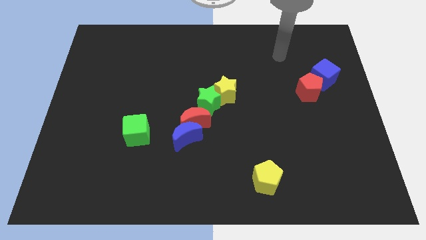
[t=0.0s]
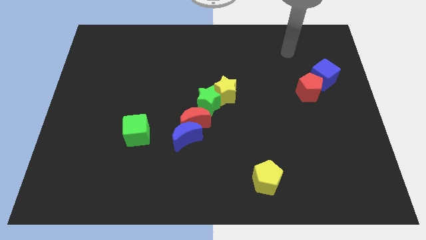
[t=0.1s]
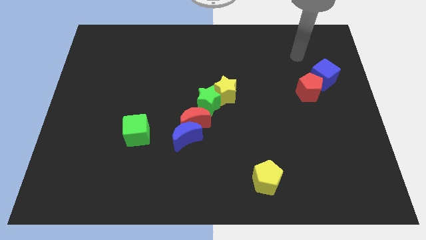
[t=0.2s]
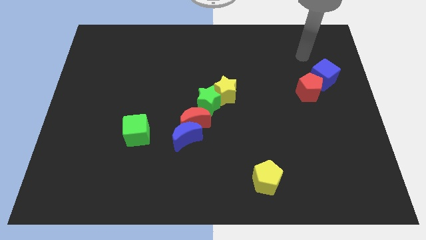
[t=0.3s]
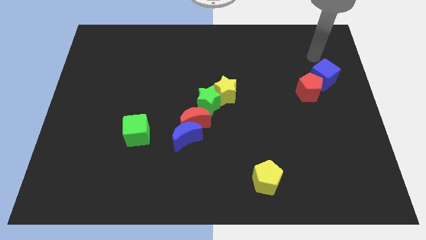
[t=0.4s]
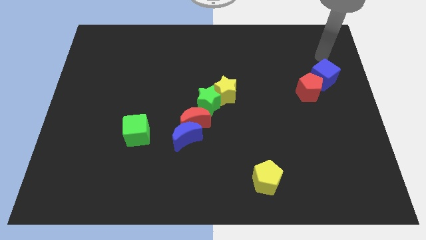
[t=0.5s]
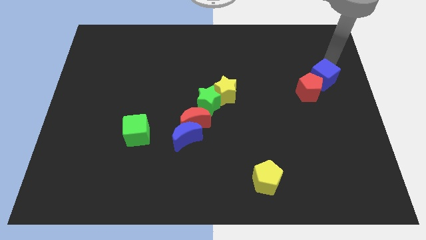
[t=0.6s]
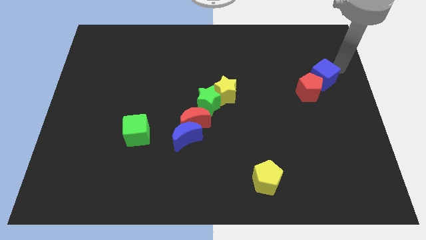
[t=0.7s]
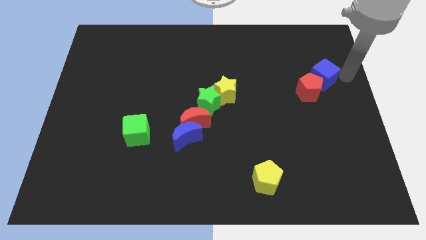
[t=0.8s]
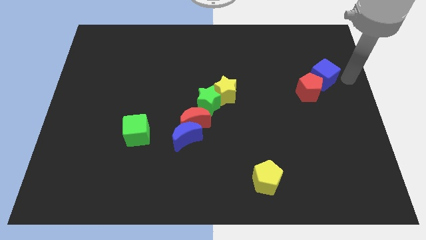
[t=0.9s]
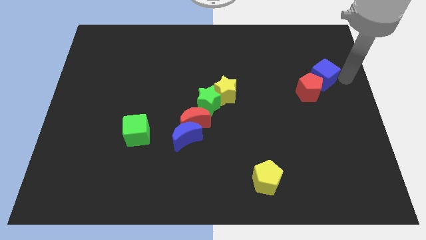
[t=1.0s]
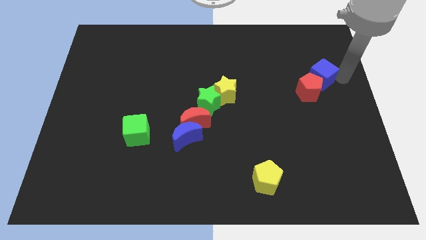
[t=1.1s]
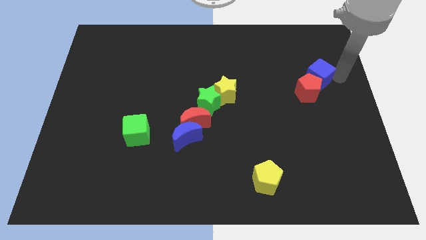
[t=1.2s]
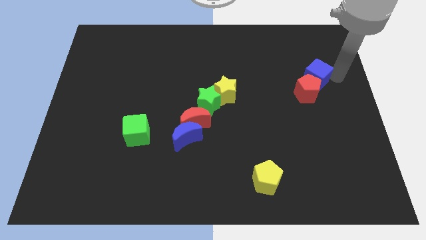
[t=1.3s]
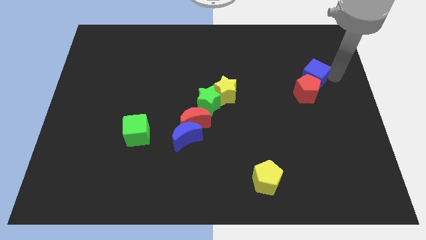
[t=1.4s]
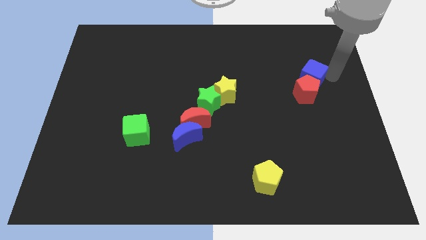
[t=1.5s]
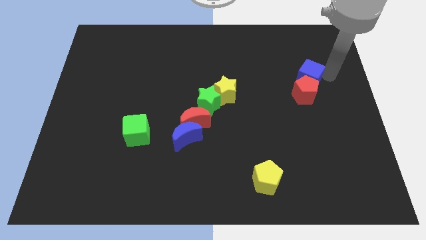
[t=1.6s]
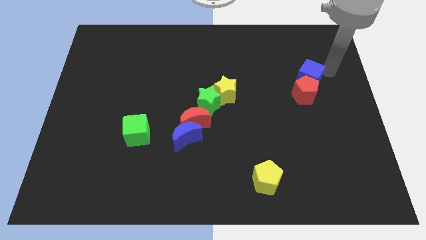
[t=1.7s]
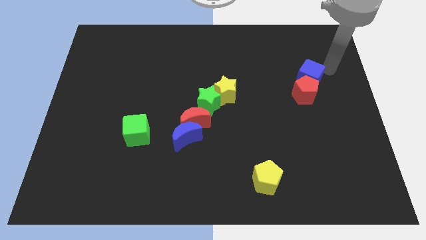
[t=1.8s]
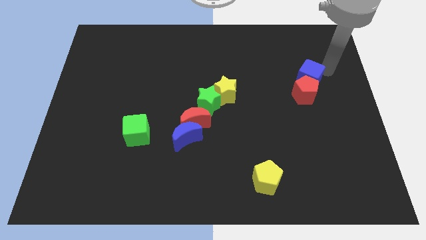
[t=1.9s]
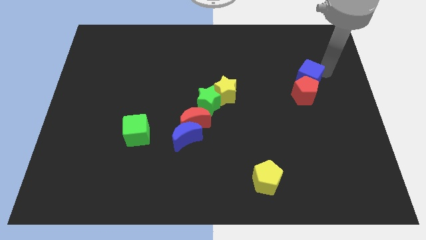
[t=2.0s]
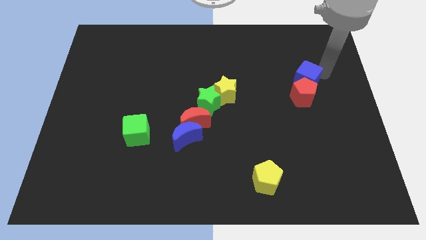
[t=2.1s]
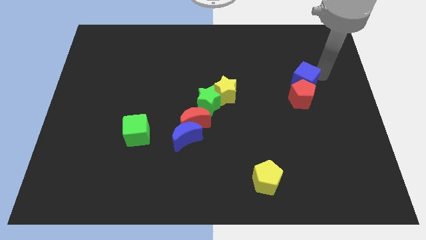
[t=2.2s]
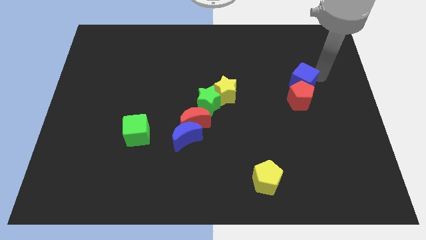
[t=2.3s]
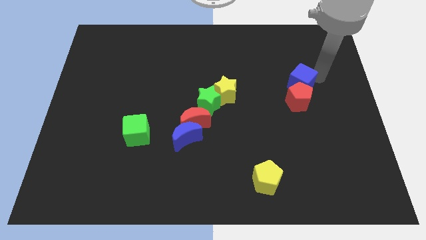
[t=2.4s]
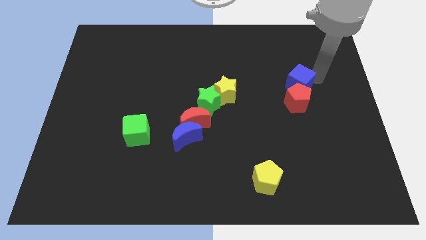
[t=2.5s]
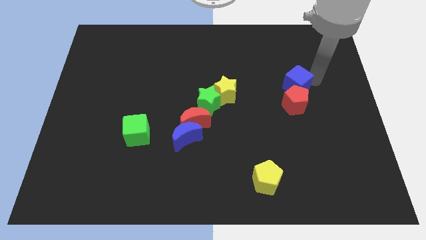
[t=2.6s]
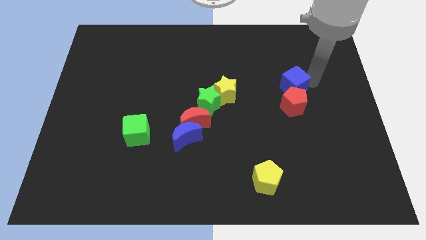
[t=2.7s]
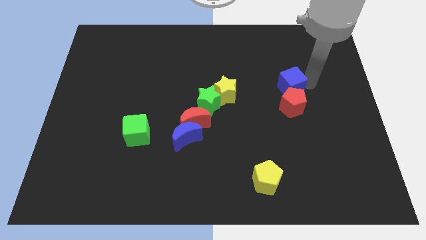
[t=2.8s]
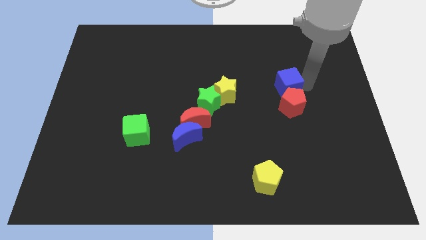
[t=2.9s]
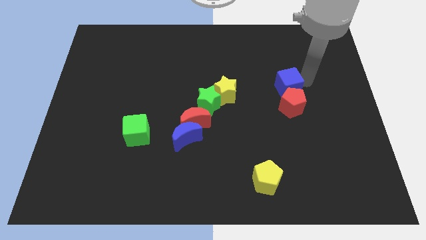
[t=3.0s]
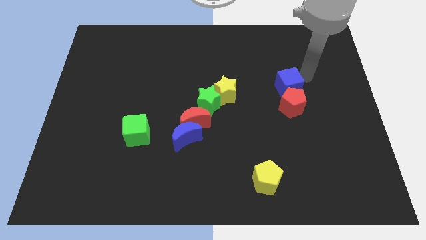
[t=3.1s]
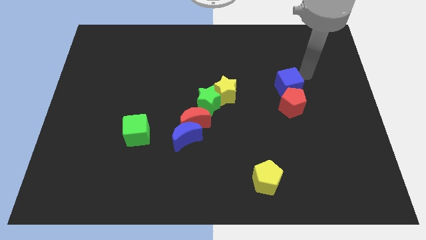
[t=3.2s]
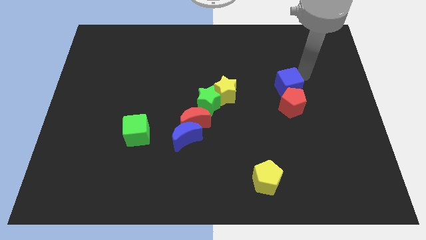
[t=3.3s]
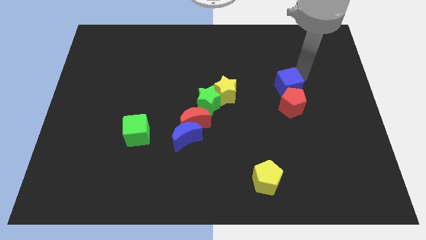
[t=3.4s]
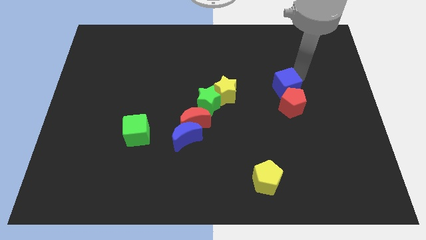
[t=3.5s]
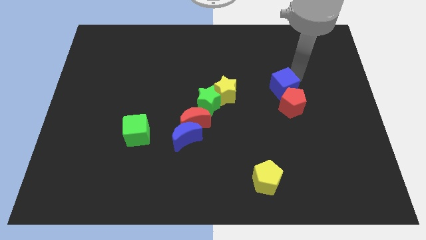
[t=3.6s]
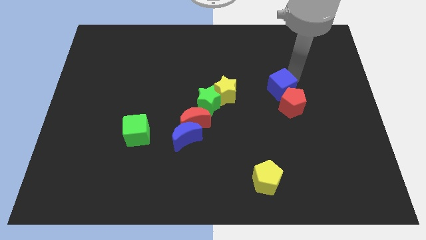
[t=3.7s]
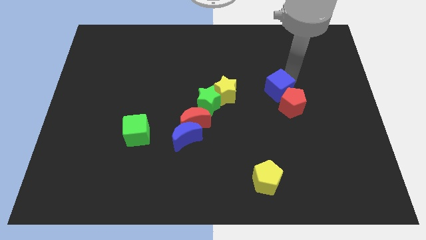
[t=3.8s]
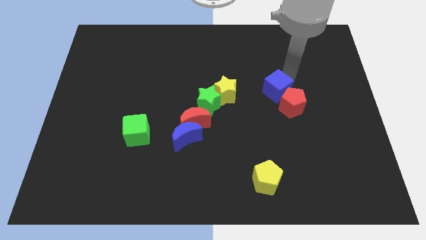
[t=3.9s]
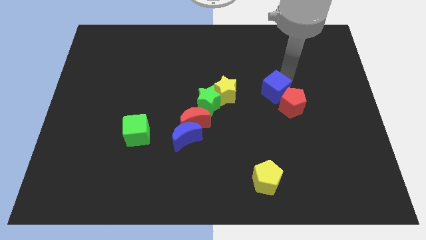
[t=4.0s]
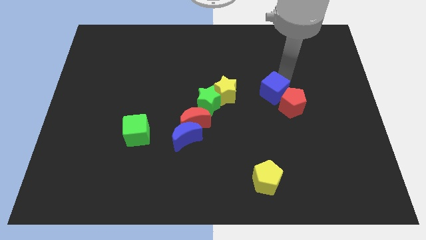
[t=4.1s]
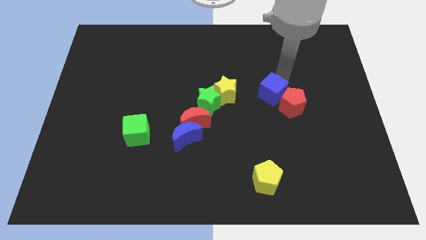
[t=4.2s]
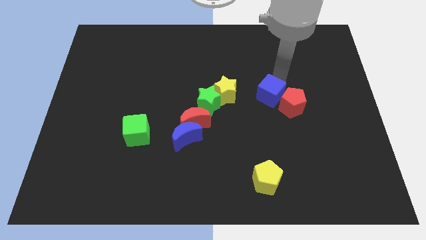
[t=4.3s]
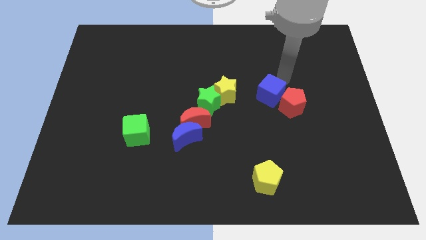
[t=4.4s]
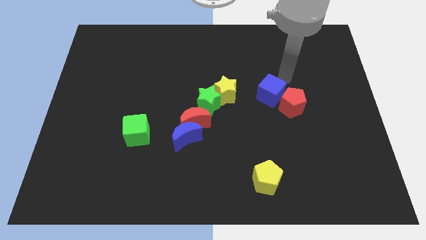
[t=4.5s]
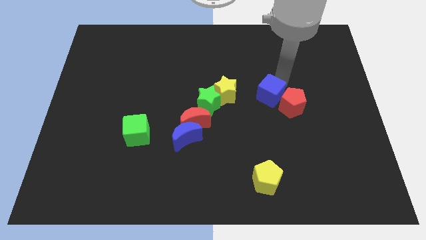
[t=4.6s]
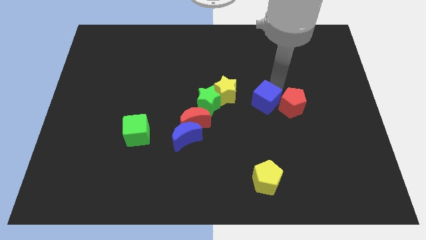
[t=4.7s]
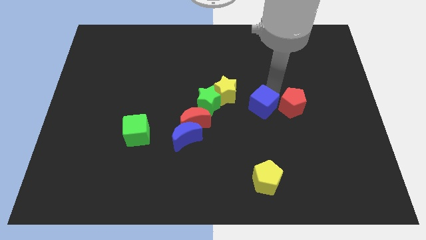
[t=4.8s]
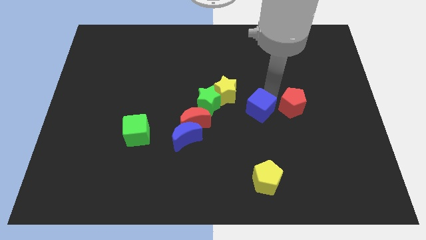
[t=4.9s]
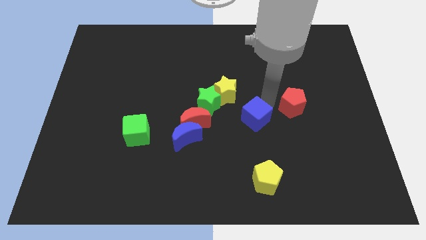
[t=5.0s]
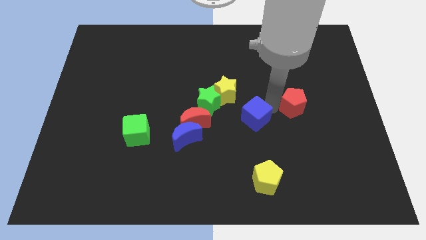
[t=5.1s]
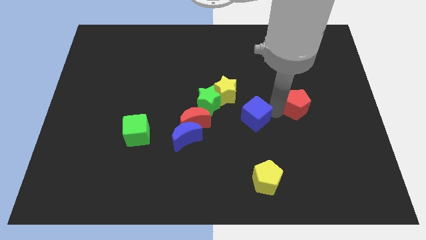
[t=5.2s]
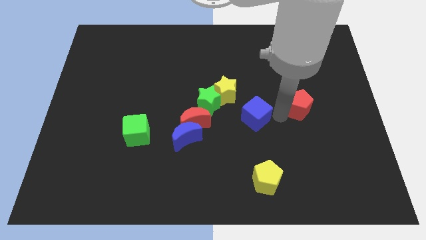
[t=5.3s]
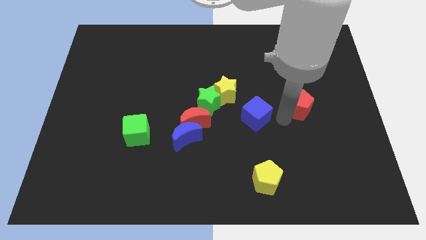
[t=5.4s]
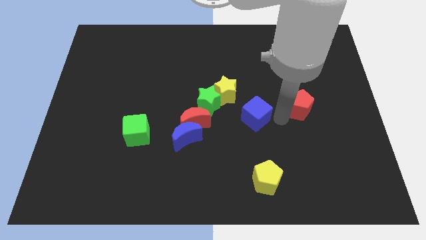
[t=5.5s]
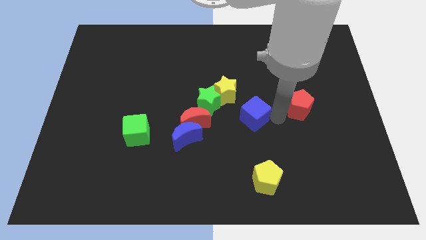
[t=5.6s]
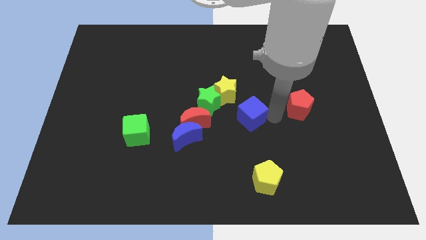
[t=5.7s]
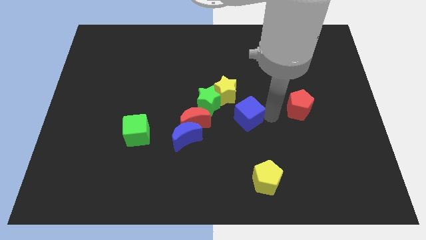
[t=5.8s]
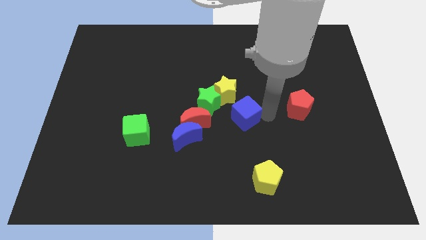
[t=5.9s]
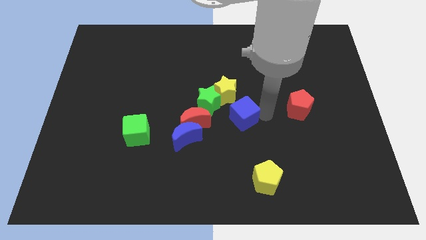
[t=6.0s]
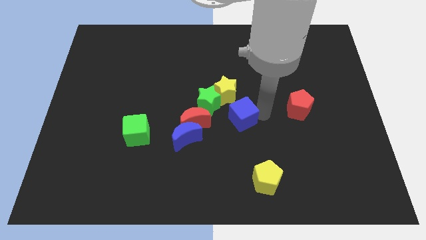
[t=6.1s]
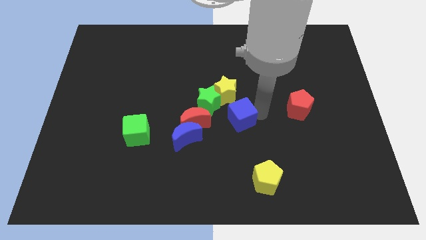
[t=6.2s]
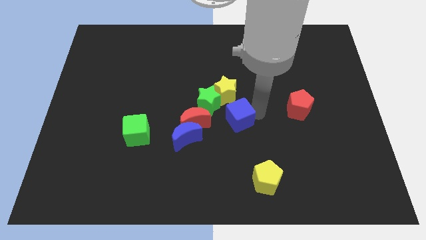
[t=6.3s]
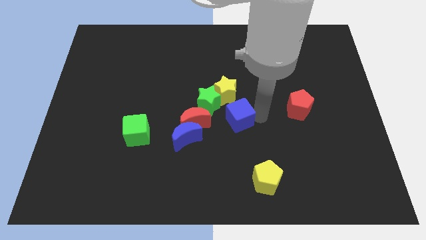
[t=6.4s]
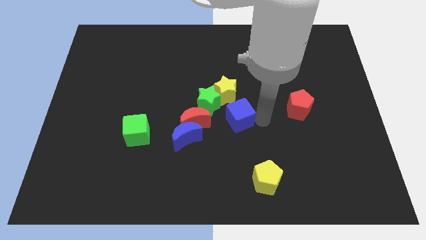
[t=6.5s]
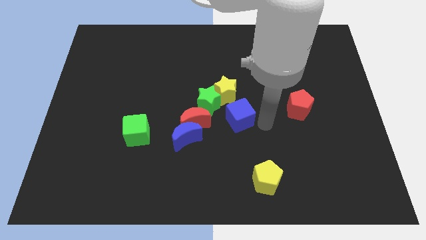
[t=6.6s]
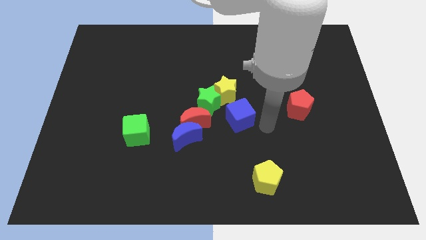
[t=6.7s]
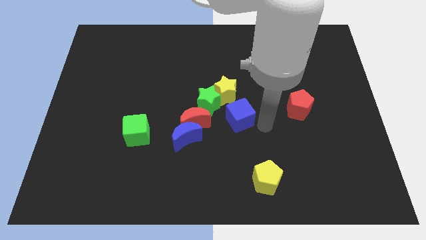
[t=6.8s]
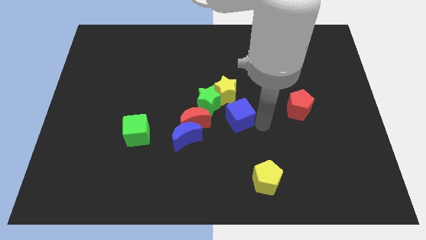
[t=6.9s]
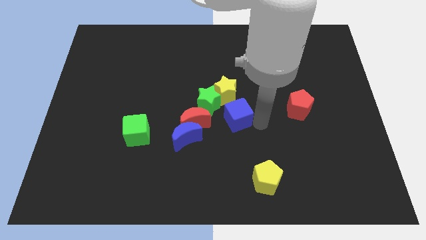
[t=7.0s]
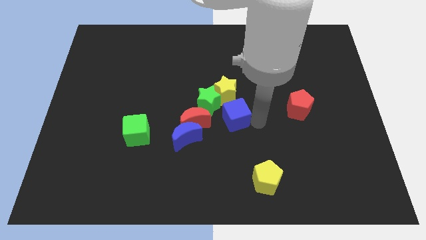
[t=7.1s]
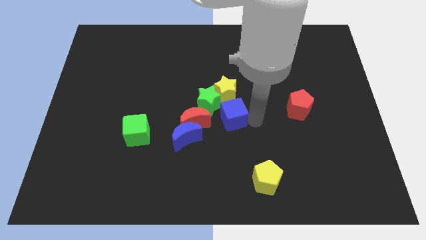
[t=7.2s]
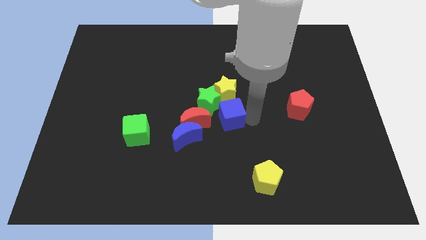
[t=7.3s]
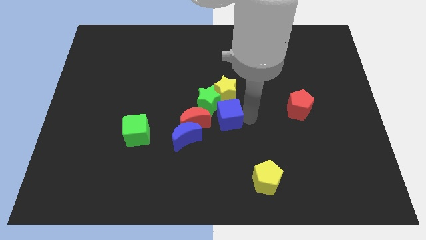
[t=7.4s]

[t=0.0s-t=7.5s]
push the blue cube to the green star
